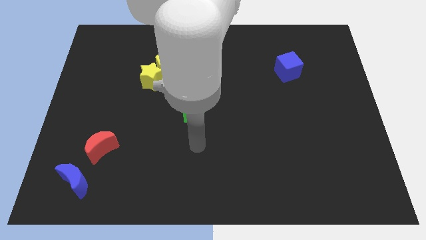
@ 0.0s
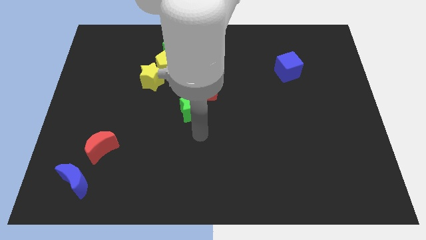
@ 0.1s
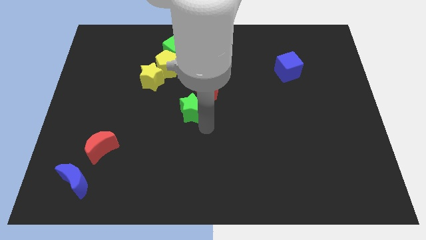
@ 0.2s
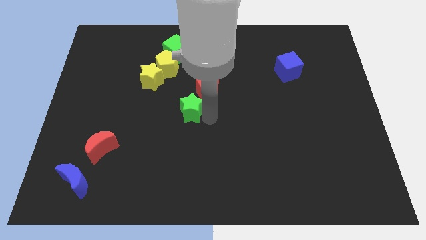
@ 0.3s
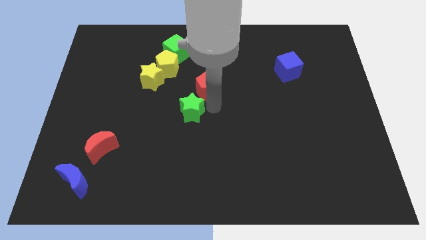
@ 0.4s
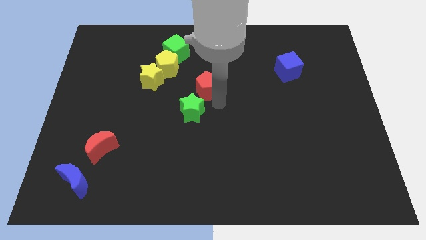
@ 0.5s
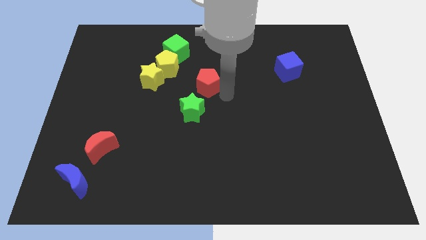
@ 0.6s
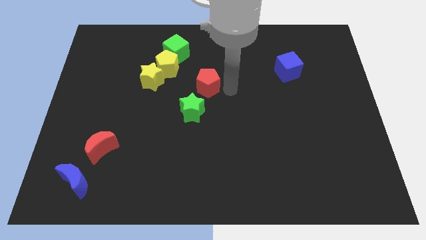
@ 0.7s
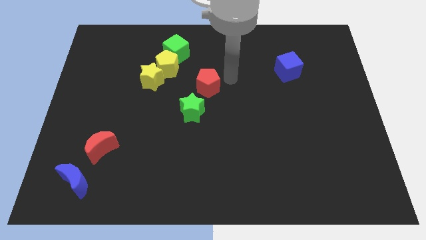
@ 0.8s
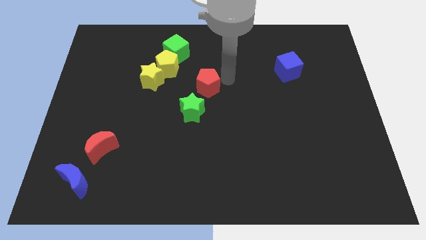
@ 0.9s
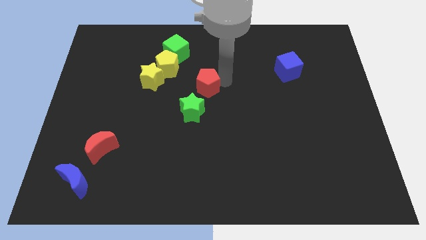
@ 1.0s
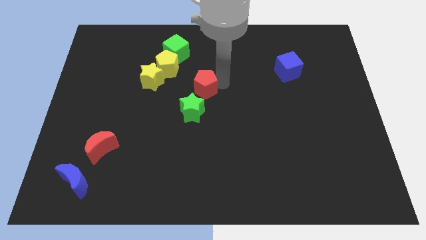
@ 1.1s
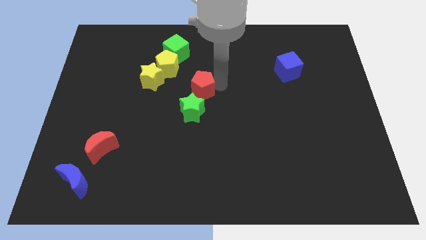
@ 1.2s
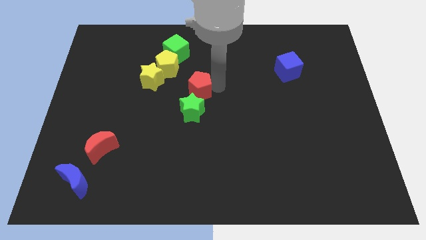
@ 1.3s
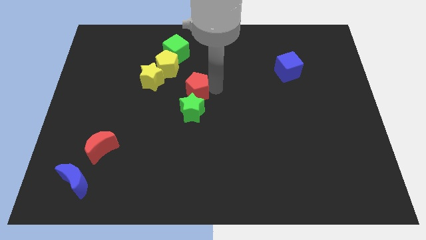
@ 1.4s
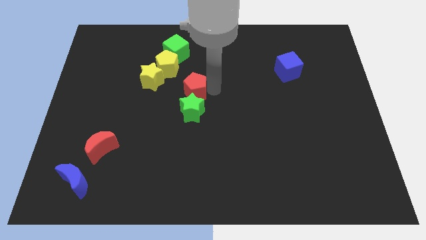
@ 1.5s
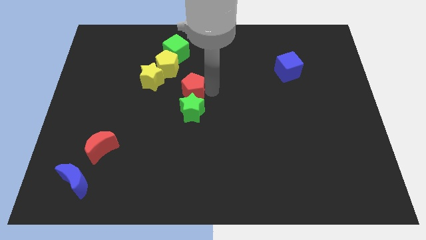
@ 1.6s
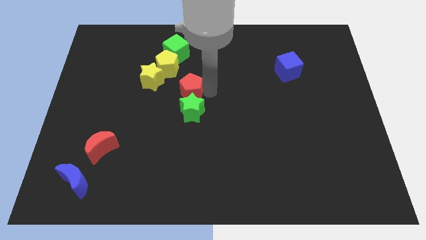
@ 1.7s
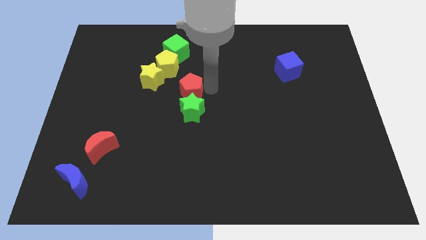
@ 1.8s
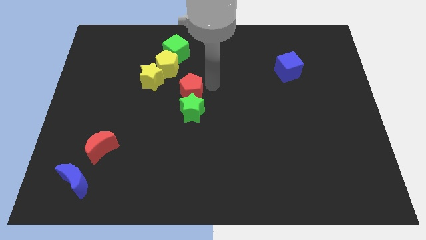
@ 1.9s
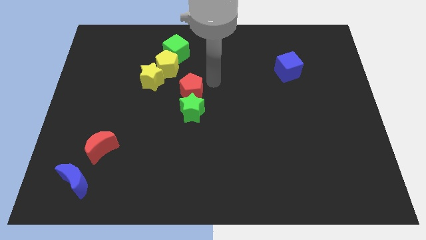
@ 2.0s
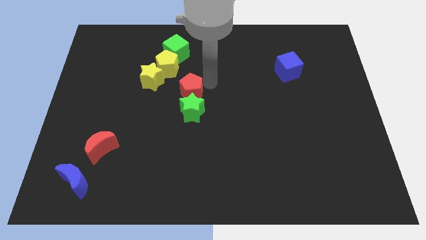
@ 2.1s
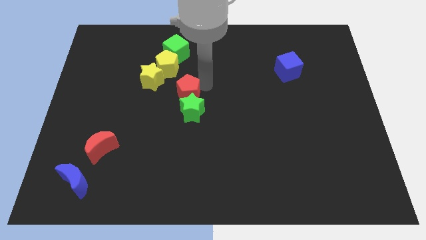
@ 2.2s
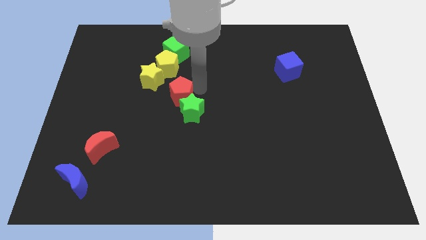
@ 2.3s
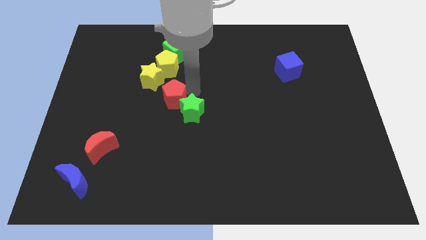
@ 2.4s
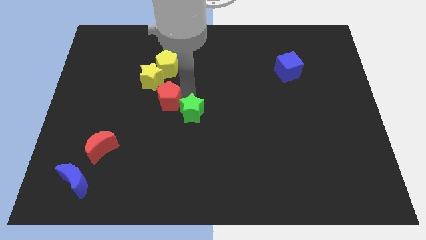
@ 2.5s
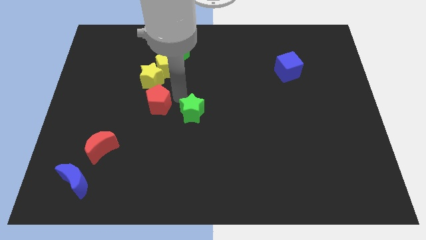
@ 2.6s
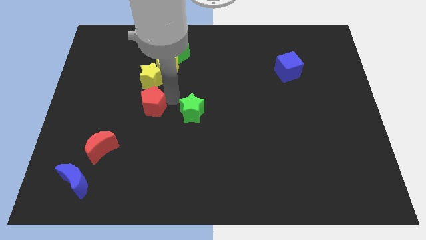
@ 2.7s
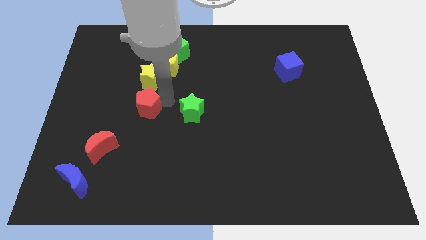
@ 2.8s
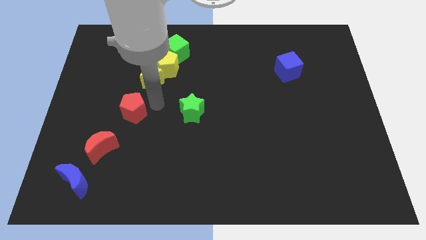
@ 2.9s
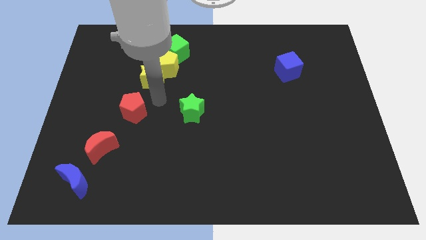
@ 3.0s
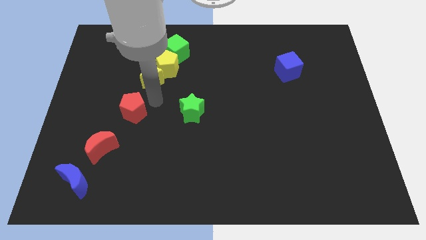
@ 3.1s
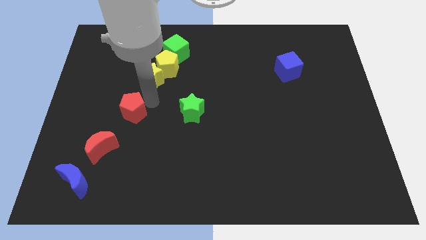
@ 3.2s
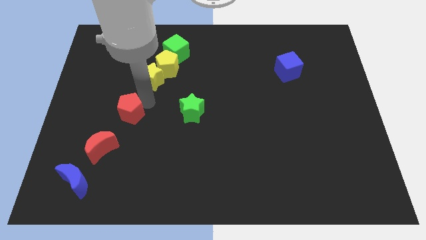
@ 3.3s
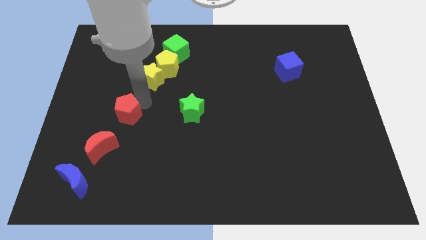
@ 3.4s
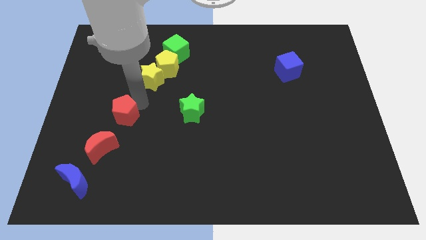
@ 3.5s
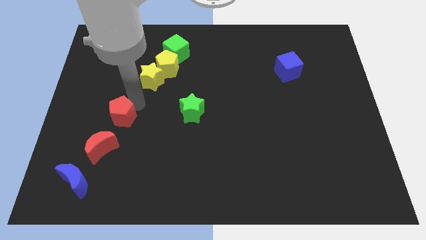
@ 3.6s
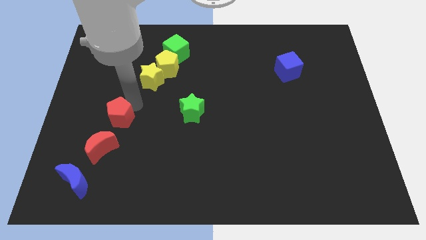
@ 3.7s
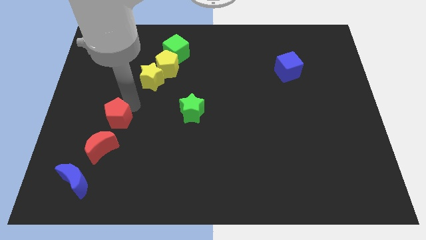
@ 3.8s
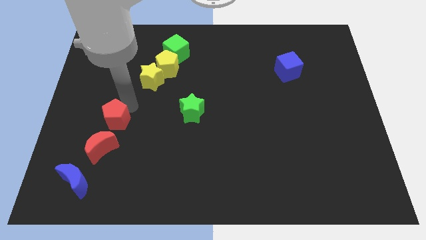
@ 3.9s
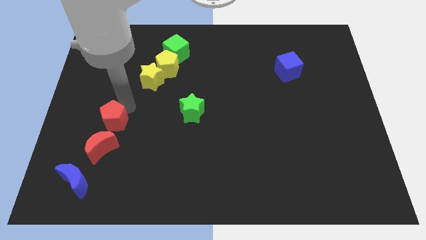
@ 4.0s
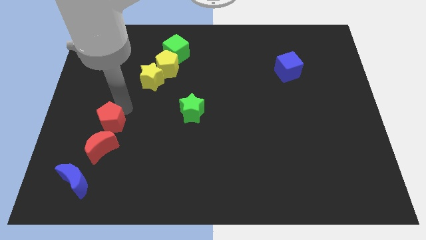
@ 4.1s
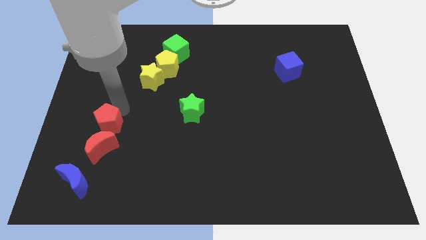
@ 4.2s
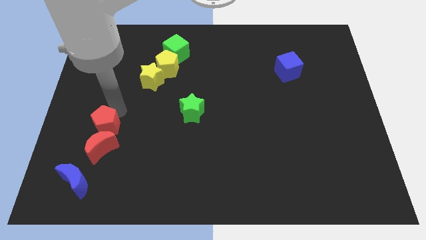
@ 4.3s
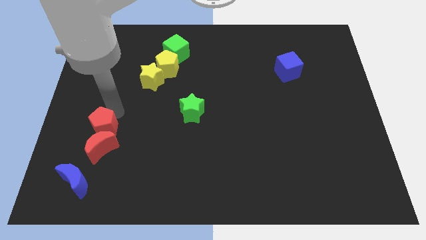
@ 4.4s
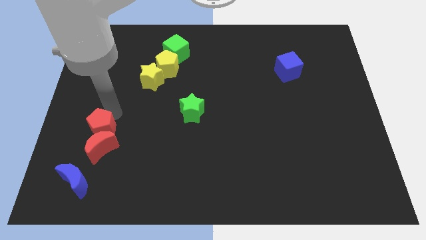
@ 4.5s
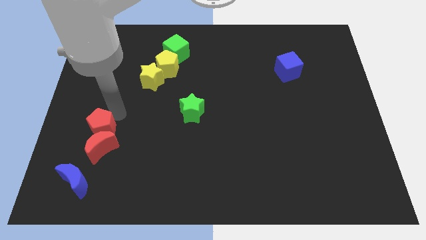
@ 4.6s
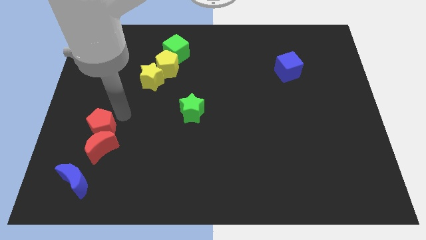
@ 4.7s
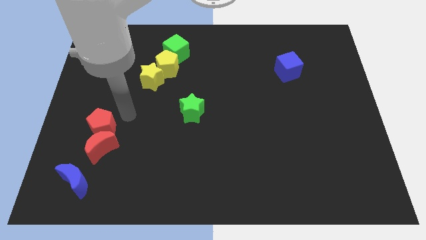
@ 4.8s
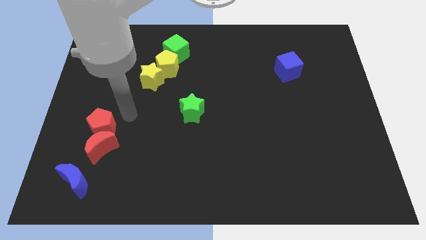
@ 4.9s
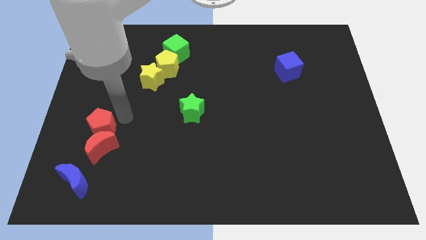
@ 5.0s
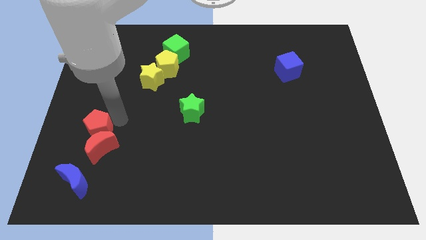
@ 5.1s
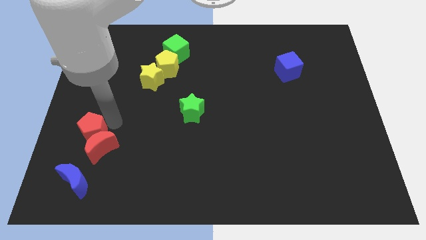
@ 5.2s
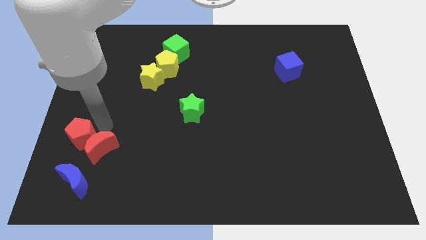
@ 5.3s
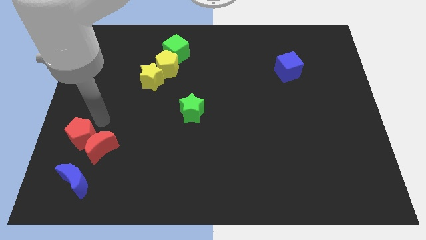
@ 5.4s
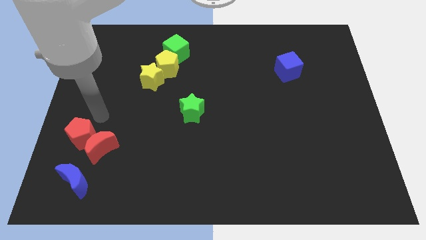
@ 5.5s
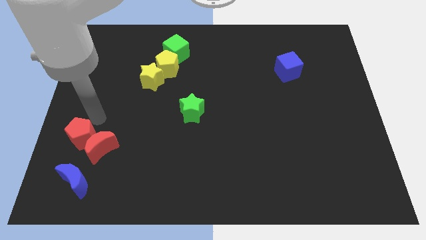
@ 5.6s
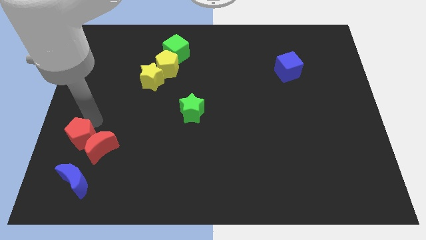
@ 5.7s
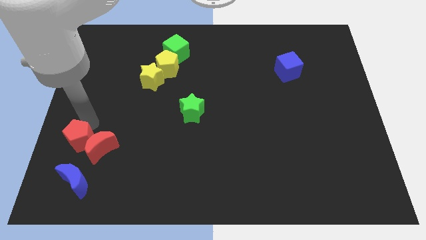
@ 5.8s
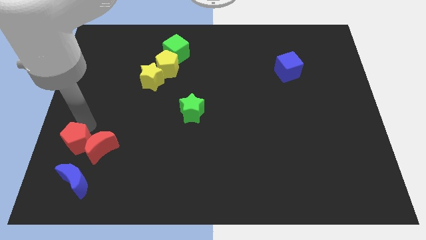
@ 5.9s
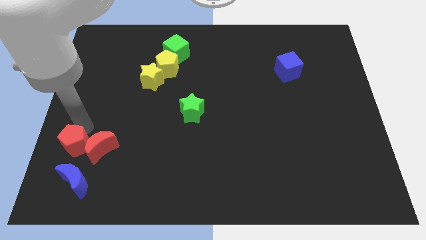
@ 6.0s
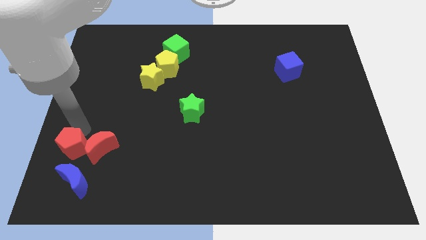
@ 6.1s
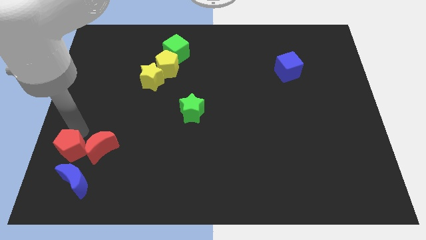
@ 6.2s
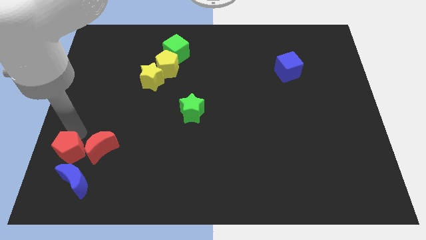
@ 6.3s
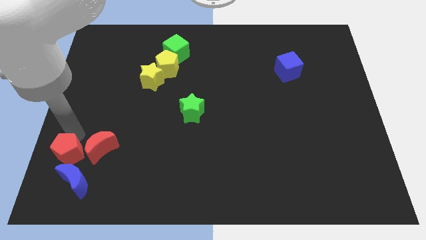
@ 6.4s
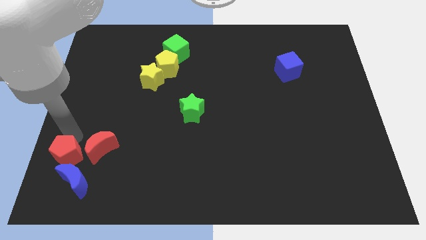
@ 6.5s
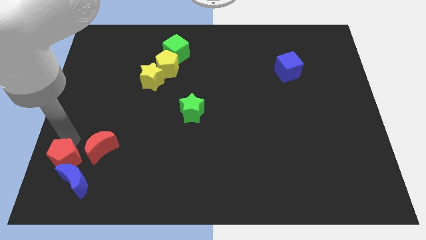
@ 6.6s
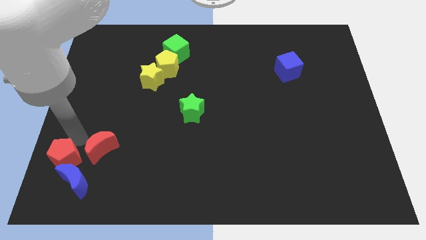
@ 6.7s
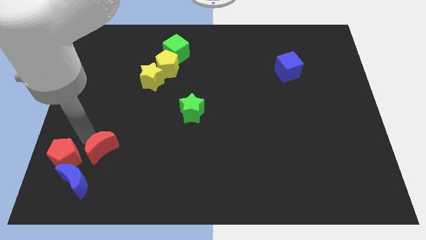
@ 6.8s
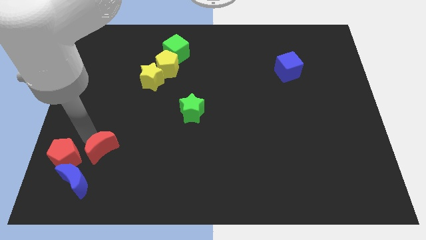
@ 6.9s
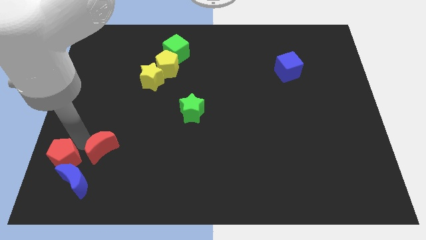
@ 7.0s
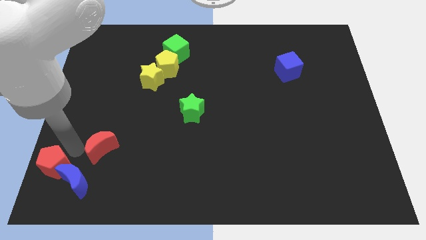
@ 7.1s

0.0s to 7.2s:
put the red pentagon to the bottom left corner
